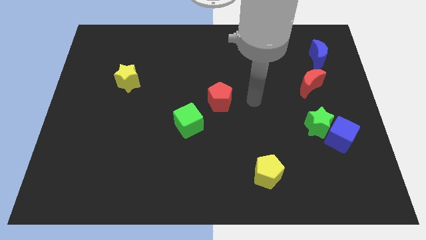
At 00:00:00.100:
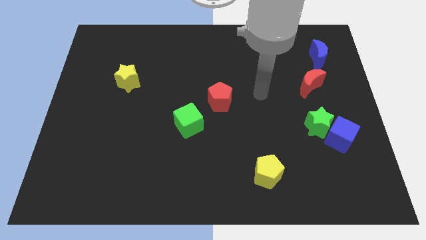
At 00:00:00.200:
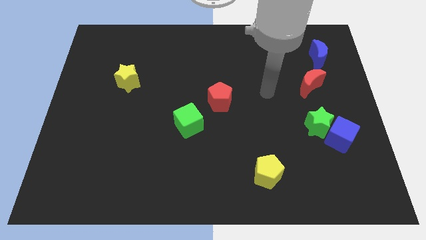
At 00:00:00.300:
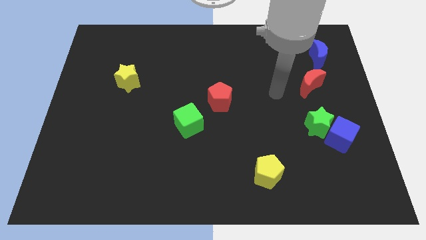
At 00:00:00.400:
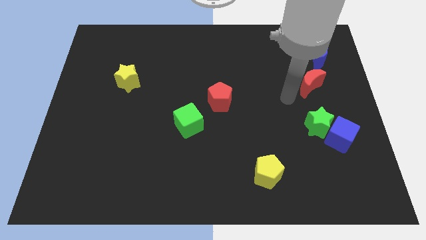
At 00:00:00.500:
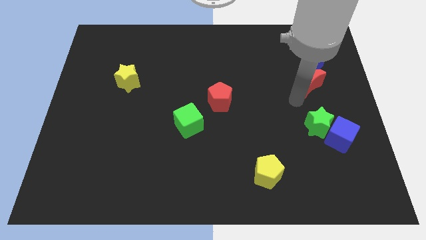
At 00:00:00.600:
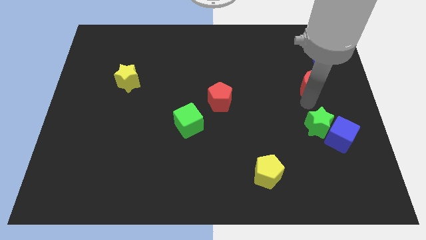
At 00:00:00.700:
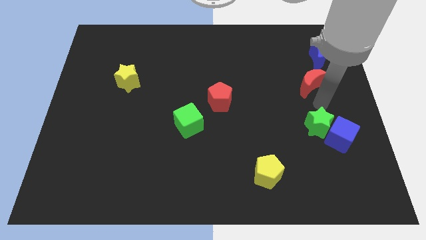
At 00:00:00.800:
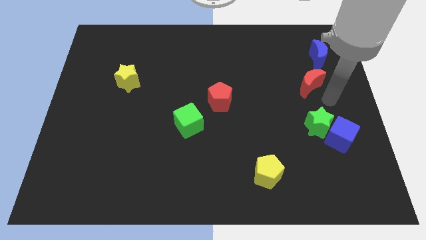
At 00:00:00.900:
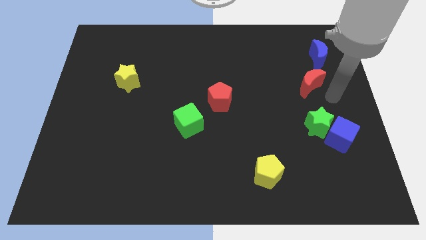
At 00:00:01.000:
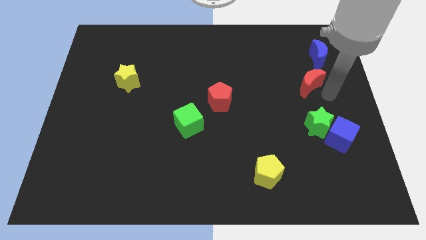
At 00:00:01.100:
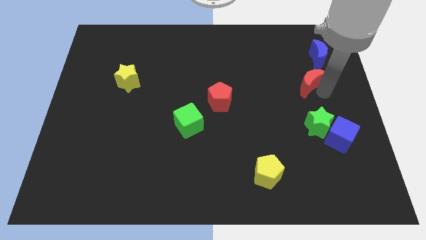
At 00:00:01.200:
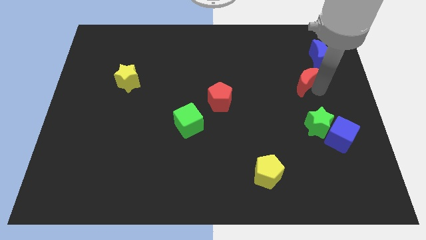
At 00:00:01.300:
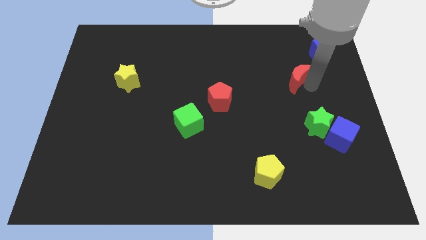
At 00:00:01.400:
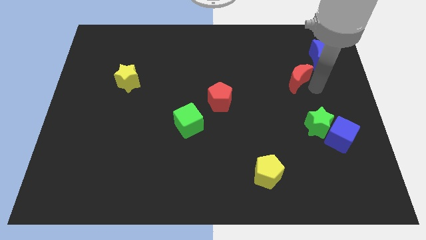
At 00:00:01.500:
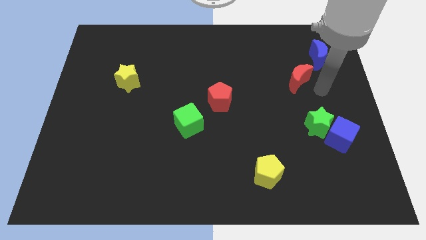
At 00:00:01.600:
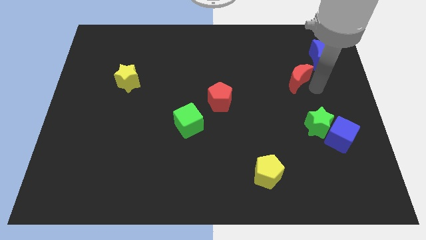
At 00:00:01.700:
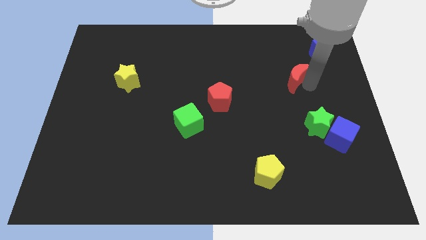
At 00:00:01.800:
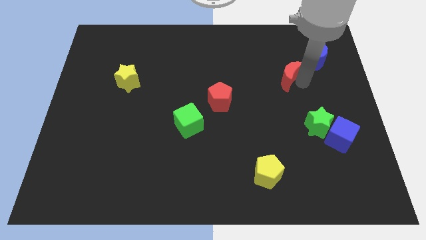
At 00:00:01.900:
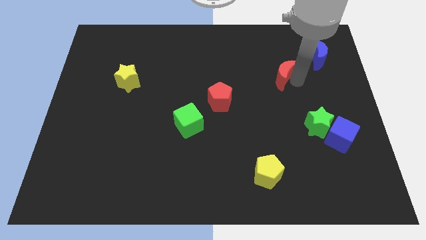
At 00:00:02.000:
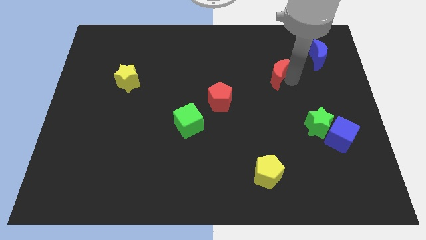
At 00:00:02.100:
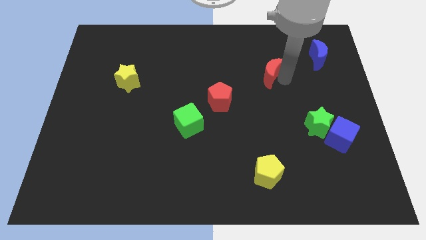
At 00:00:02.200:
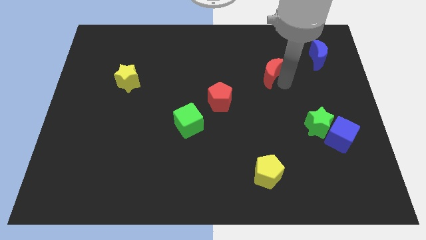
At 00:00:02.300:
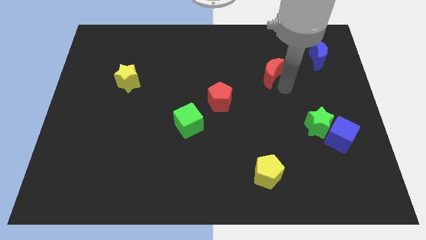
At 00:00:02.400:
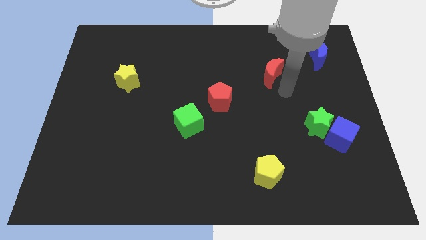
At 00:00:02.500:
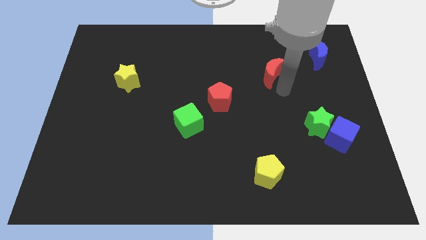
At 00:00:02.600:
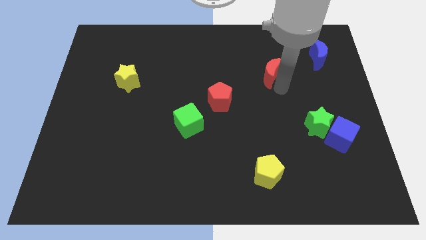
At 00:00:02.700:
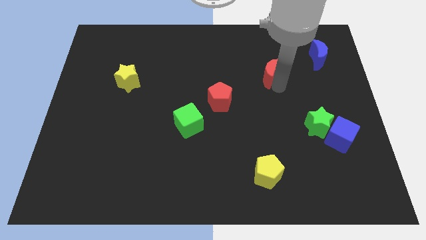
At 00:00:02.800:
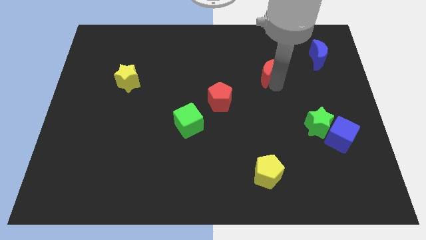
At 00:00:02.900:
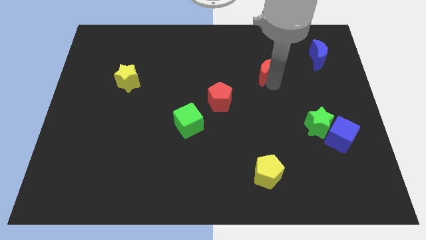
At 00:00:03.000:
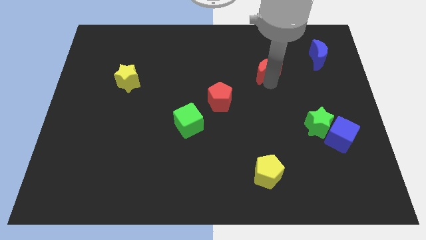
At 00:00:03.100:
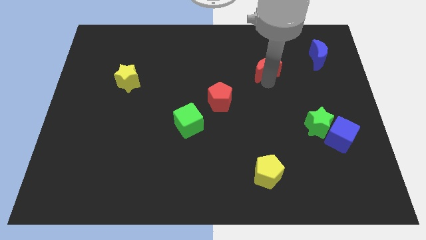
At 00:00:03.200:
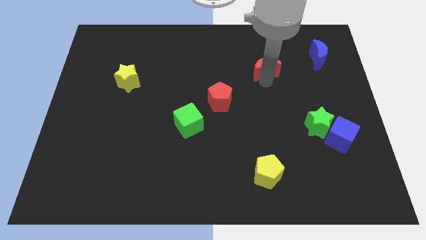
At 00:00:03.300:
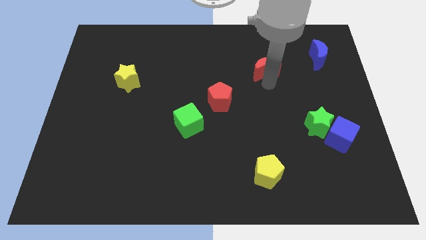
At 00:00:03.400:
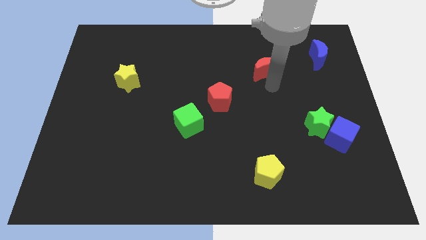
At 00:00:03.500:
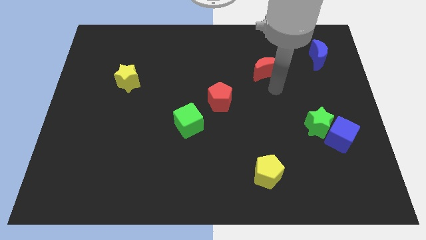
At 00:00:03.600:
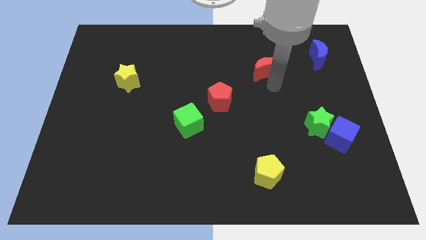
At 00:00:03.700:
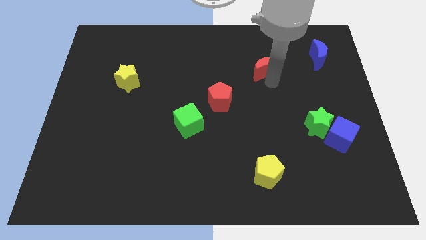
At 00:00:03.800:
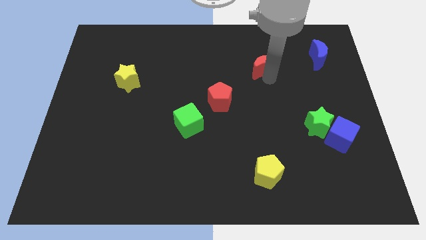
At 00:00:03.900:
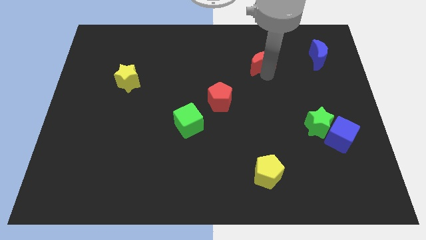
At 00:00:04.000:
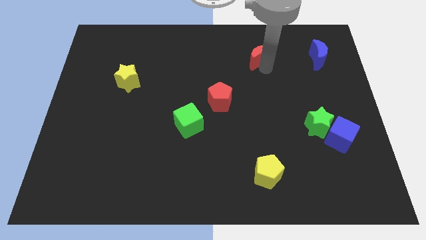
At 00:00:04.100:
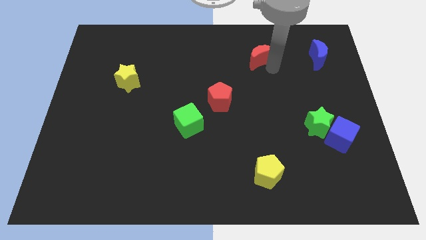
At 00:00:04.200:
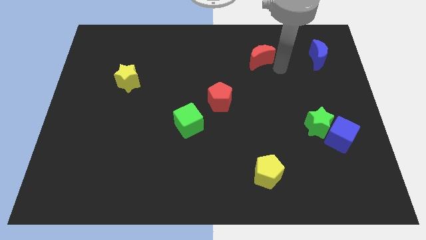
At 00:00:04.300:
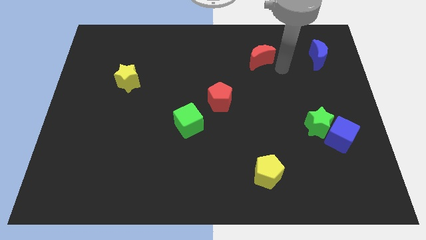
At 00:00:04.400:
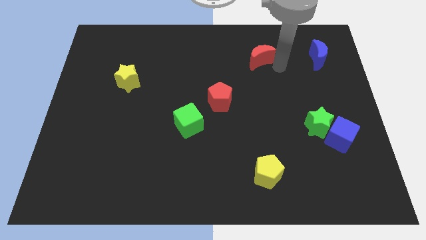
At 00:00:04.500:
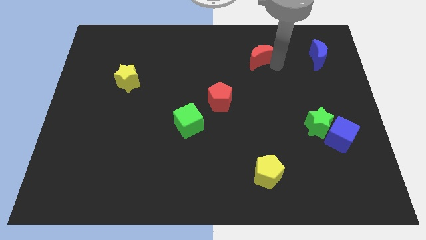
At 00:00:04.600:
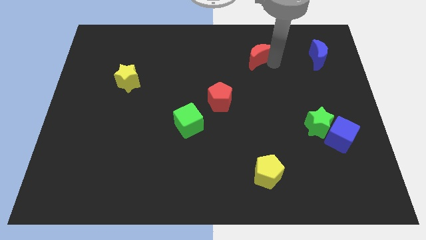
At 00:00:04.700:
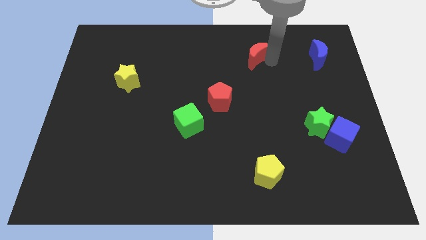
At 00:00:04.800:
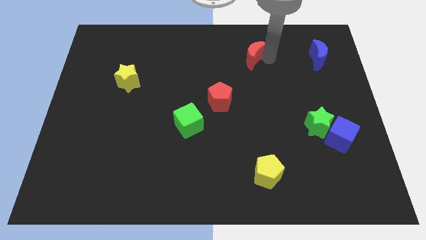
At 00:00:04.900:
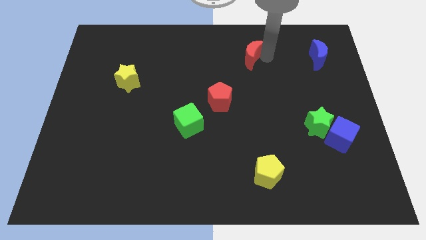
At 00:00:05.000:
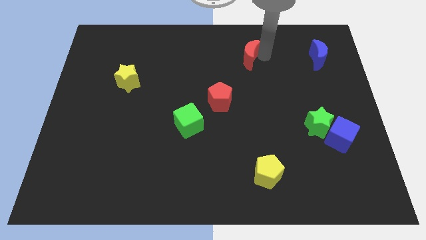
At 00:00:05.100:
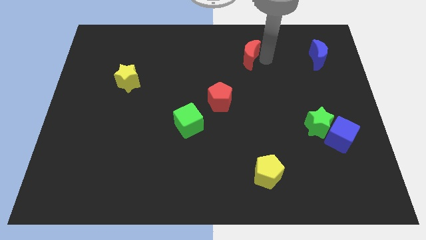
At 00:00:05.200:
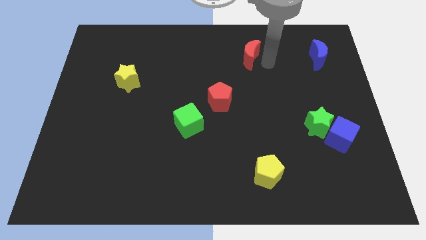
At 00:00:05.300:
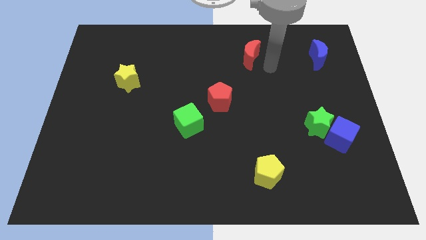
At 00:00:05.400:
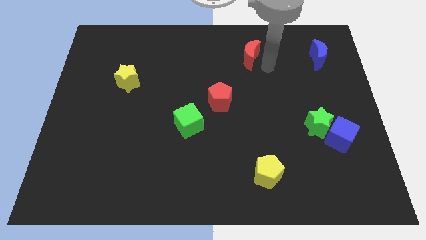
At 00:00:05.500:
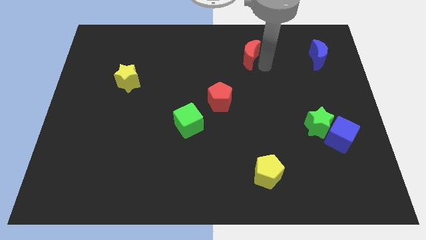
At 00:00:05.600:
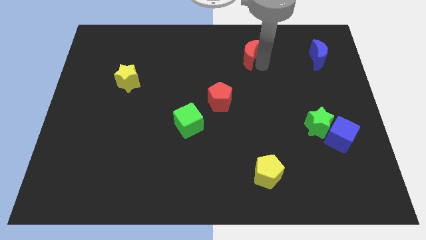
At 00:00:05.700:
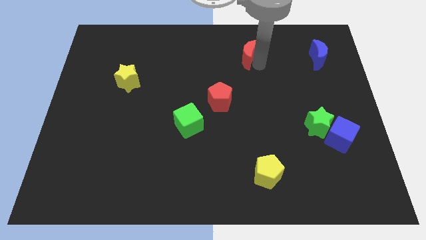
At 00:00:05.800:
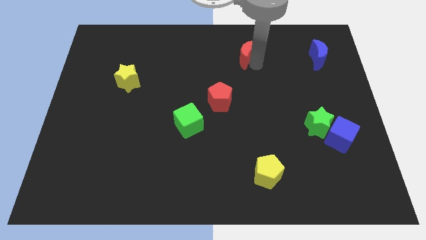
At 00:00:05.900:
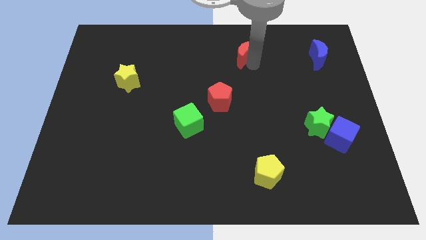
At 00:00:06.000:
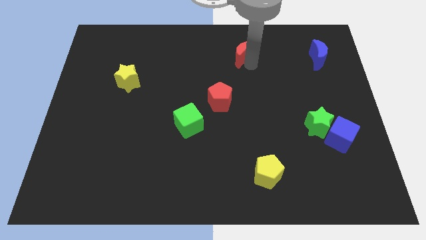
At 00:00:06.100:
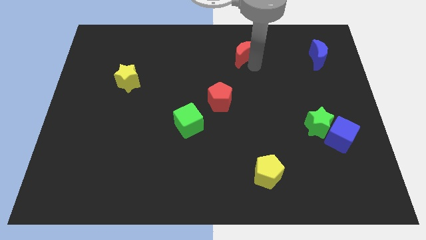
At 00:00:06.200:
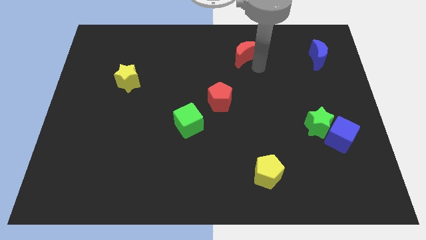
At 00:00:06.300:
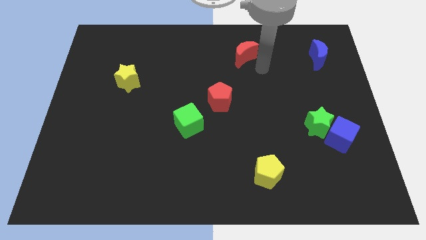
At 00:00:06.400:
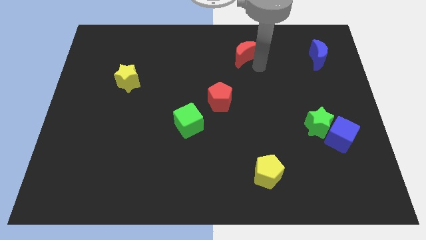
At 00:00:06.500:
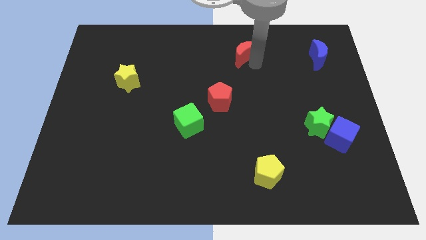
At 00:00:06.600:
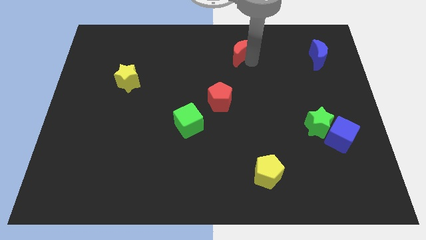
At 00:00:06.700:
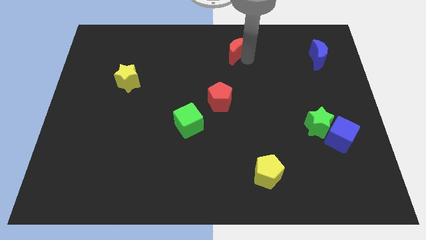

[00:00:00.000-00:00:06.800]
put the red moon to the top

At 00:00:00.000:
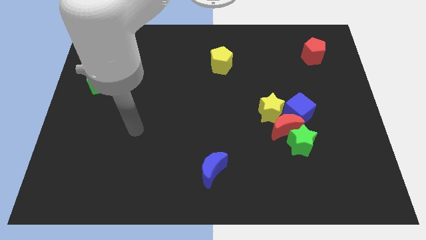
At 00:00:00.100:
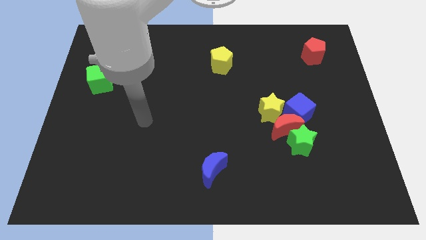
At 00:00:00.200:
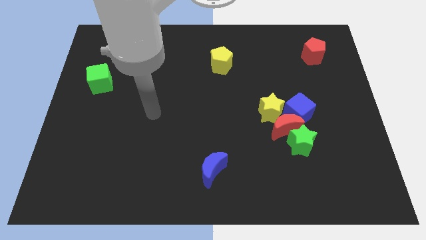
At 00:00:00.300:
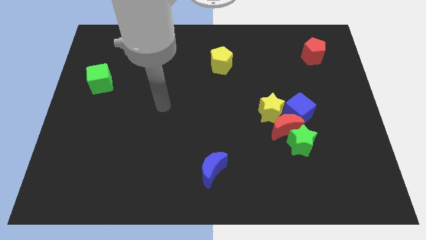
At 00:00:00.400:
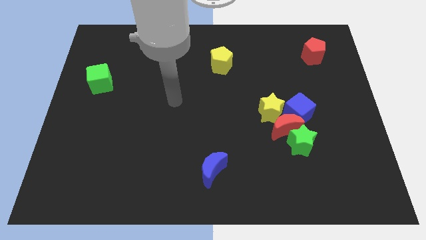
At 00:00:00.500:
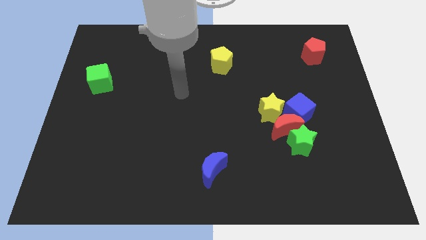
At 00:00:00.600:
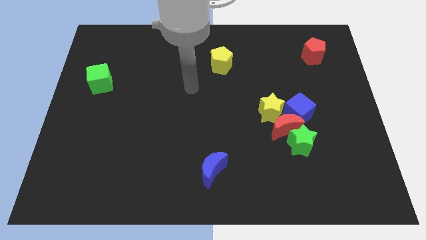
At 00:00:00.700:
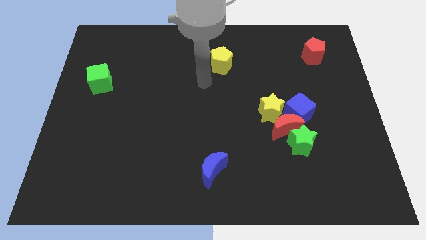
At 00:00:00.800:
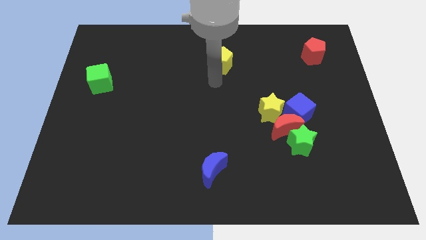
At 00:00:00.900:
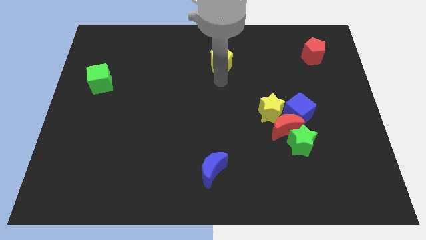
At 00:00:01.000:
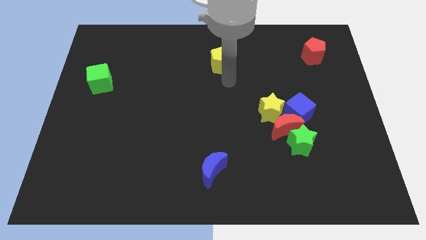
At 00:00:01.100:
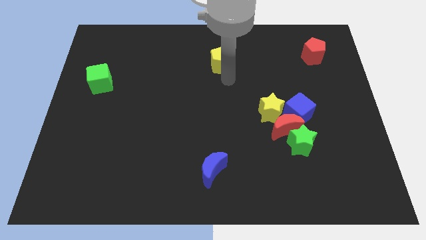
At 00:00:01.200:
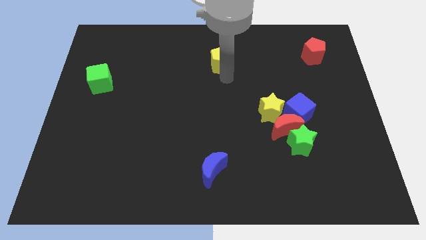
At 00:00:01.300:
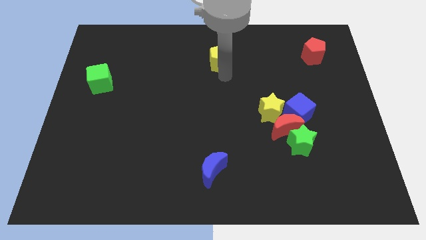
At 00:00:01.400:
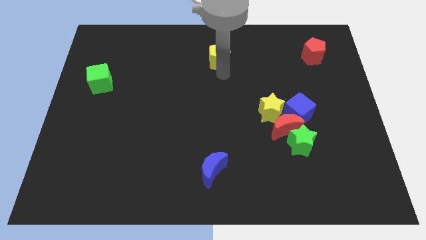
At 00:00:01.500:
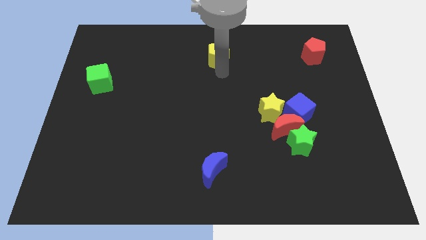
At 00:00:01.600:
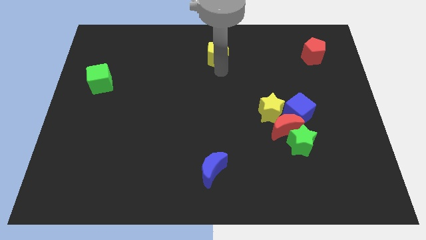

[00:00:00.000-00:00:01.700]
move the yellow pentagon to the towards your base
